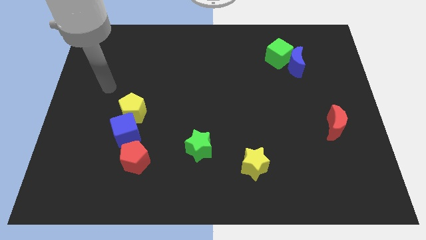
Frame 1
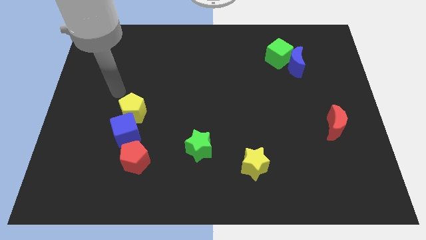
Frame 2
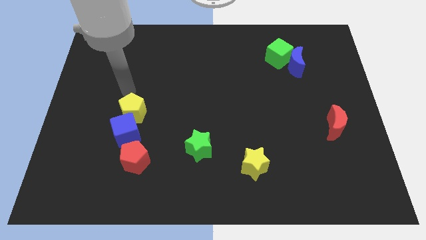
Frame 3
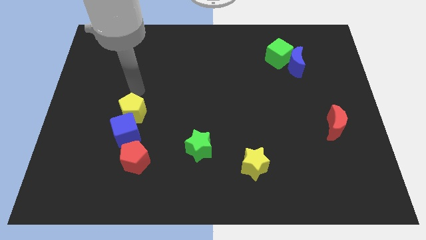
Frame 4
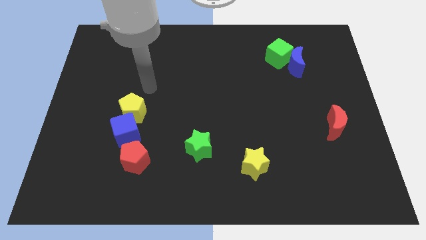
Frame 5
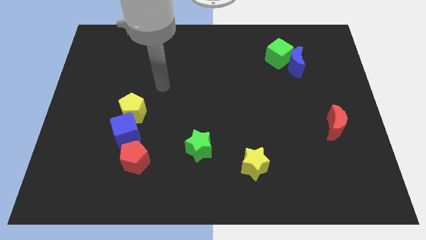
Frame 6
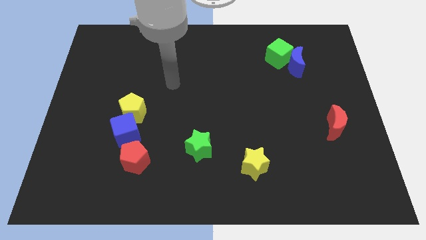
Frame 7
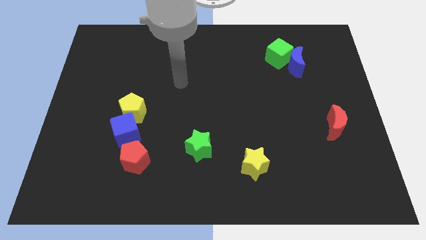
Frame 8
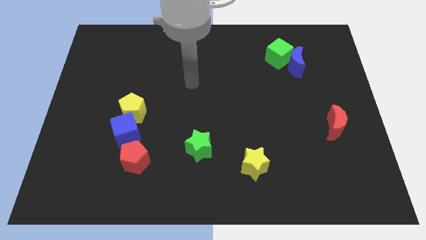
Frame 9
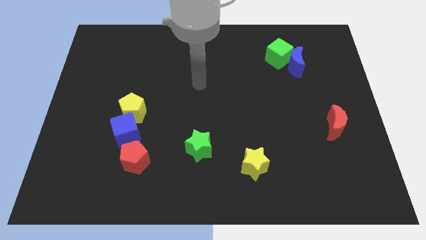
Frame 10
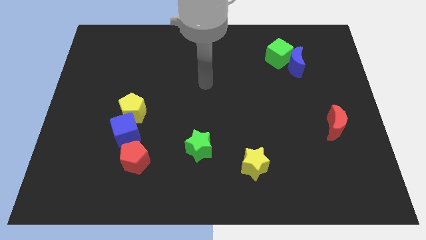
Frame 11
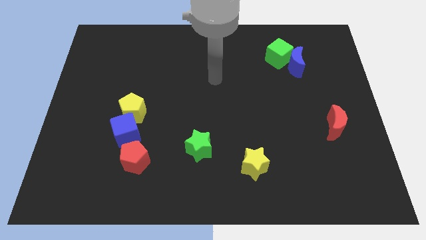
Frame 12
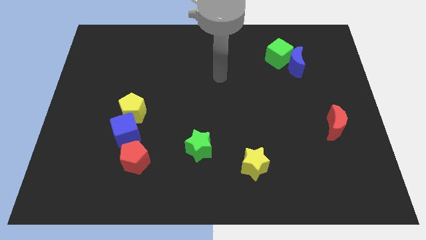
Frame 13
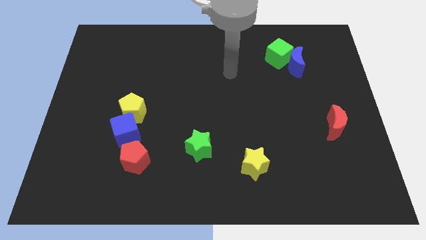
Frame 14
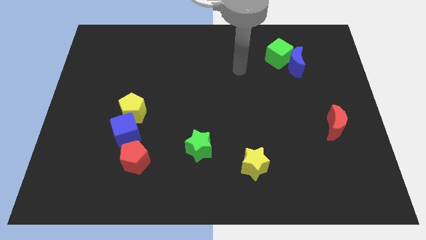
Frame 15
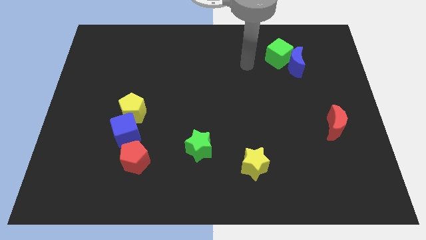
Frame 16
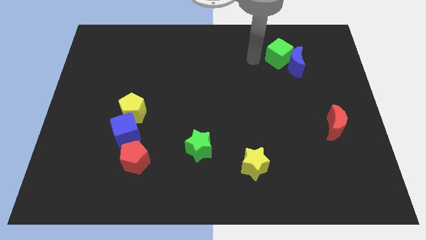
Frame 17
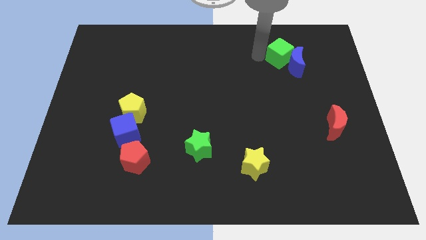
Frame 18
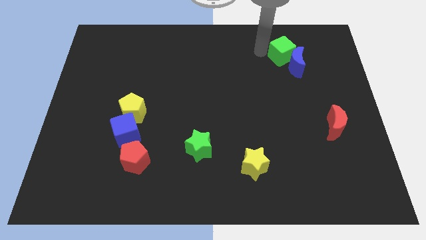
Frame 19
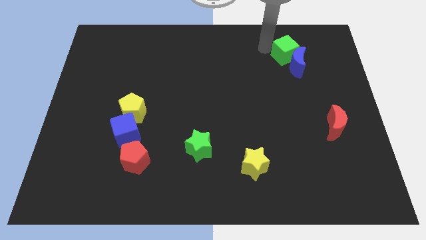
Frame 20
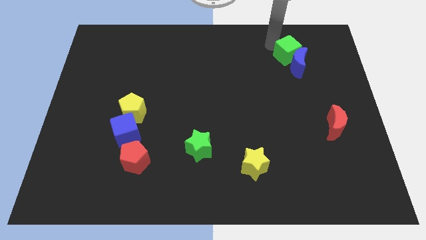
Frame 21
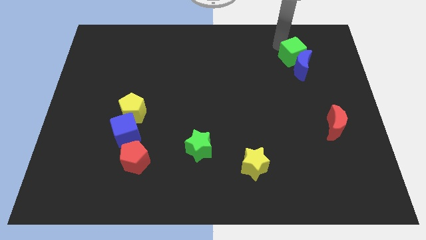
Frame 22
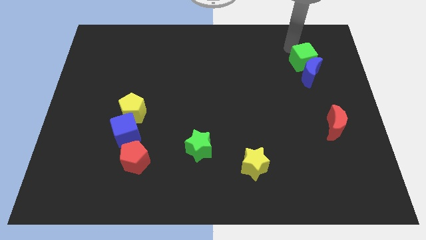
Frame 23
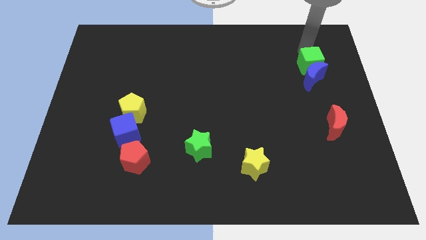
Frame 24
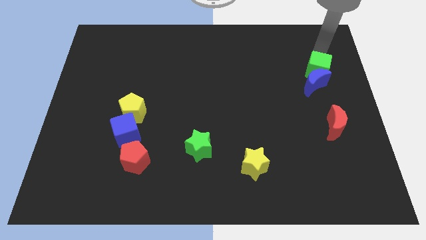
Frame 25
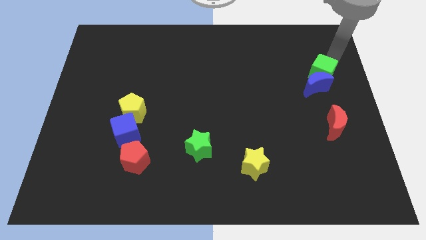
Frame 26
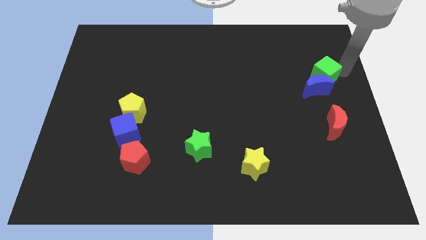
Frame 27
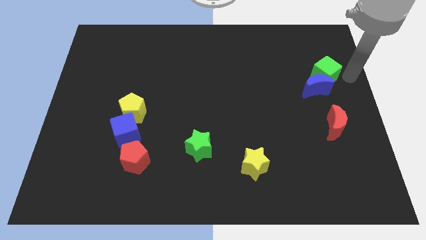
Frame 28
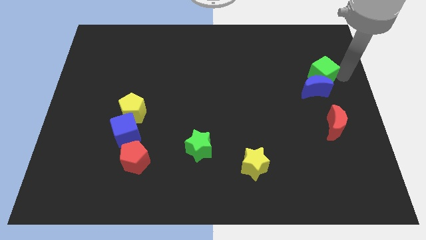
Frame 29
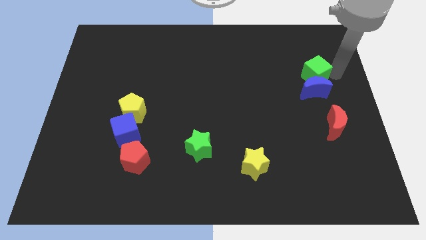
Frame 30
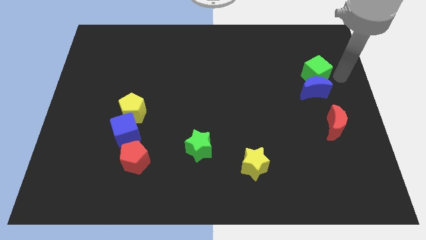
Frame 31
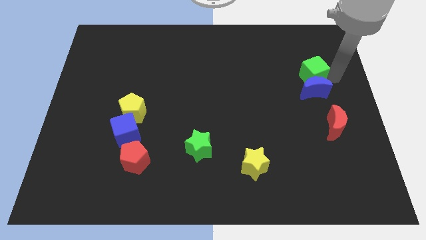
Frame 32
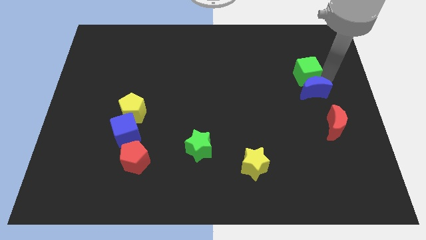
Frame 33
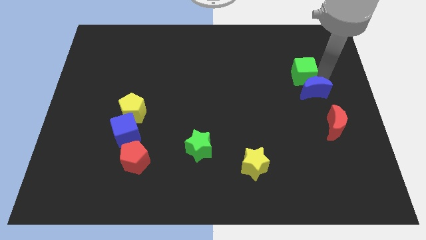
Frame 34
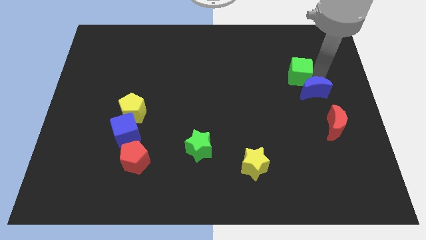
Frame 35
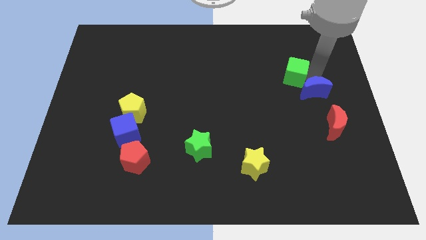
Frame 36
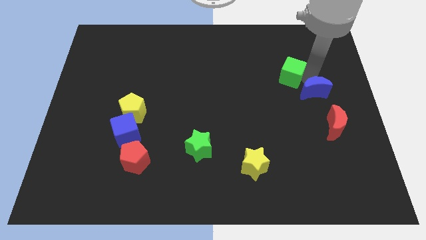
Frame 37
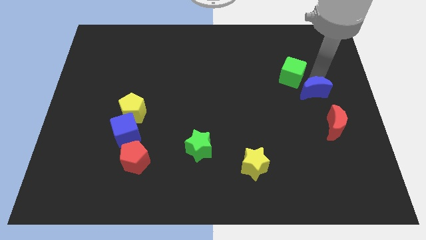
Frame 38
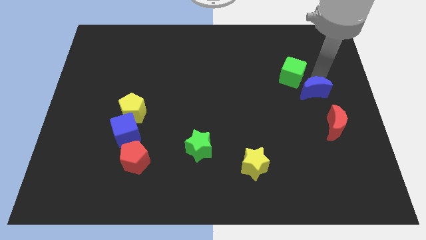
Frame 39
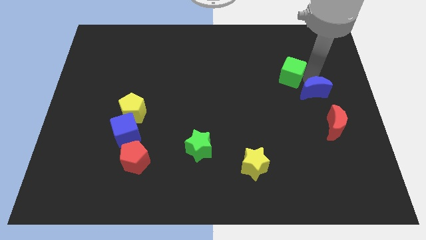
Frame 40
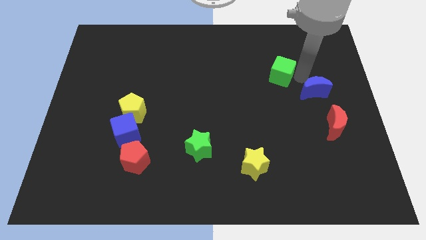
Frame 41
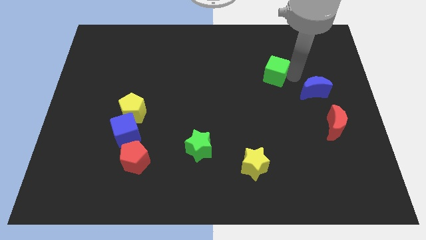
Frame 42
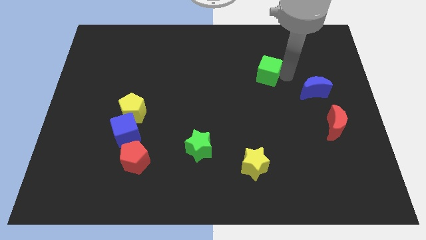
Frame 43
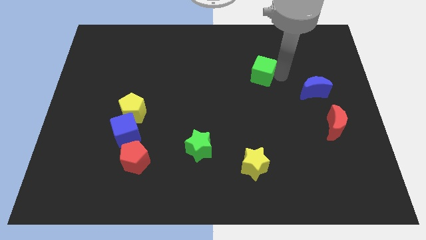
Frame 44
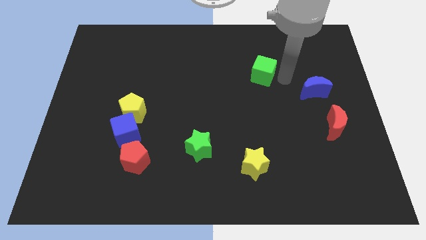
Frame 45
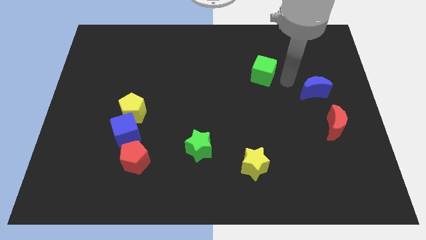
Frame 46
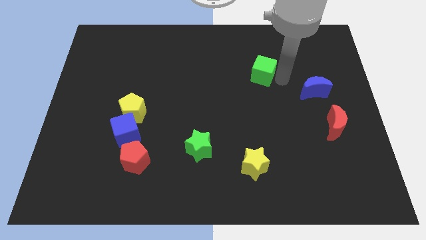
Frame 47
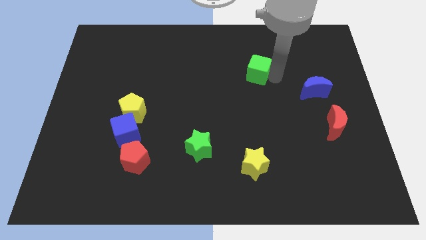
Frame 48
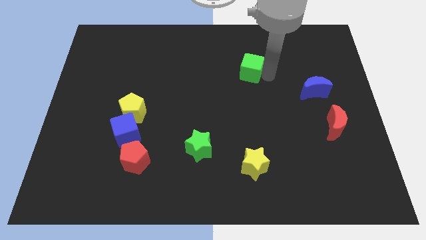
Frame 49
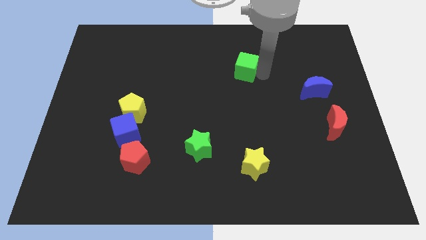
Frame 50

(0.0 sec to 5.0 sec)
slightly move the green cube left

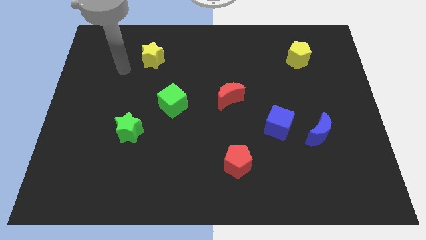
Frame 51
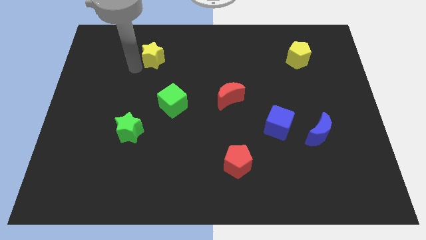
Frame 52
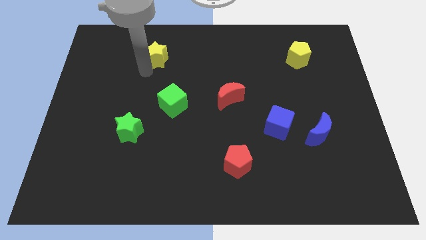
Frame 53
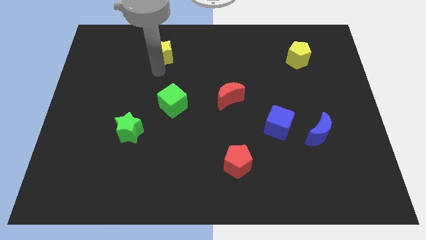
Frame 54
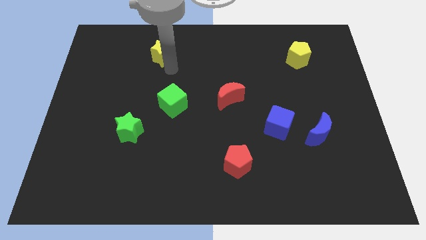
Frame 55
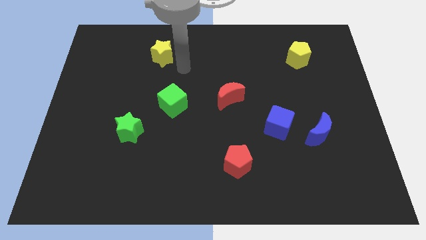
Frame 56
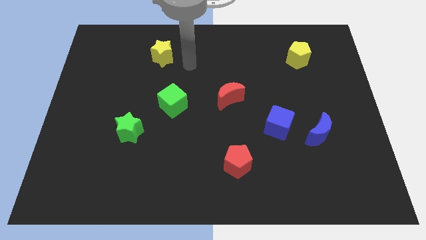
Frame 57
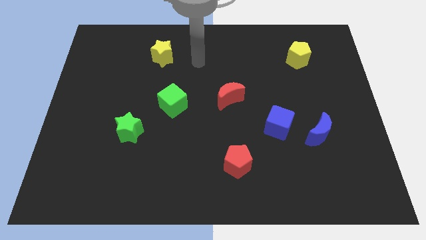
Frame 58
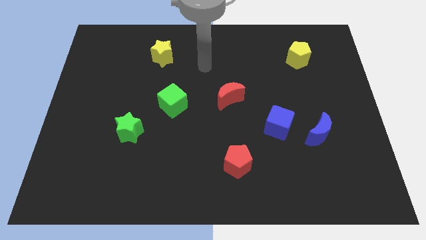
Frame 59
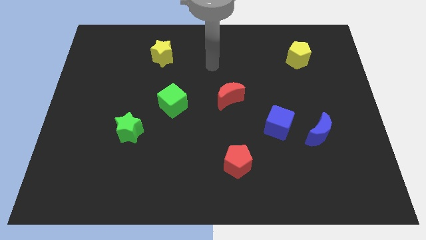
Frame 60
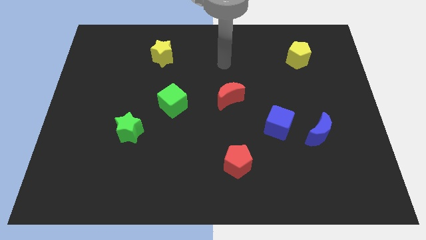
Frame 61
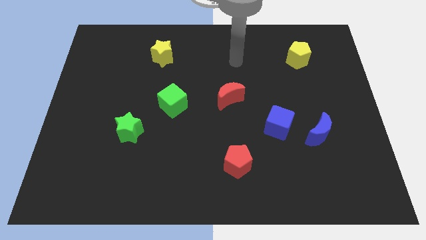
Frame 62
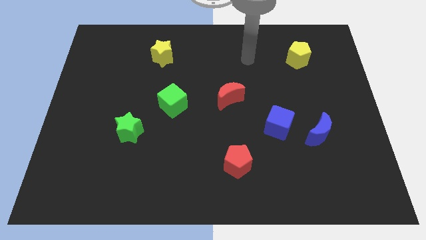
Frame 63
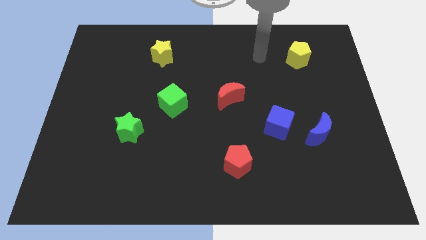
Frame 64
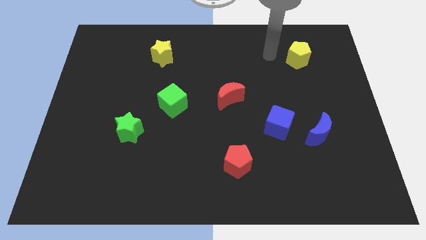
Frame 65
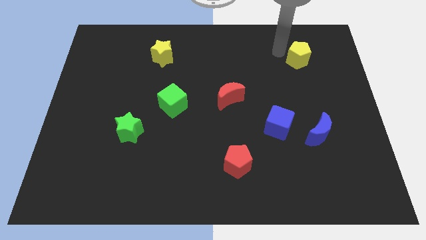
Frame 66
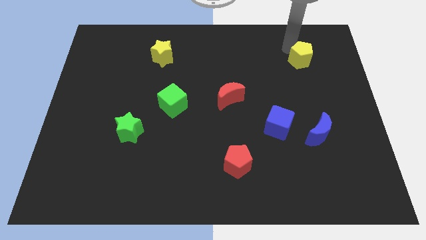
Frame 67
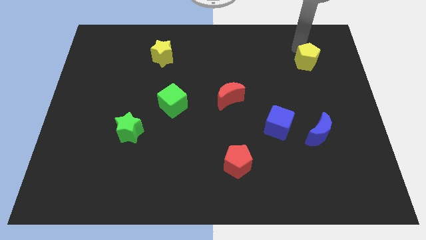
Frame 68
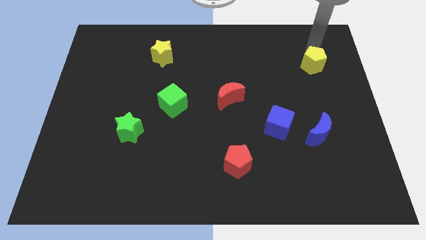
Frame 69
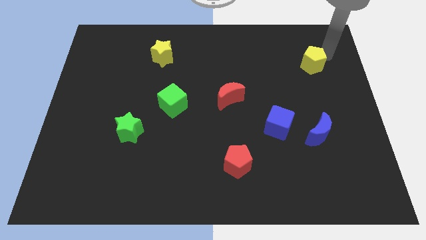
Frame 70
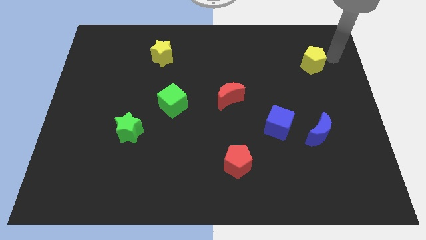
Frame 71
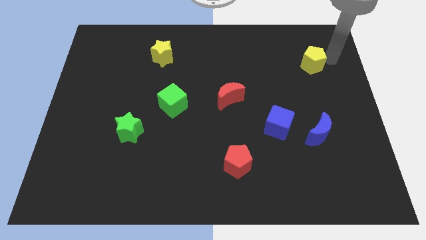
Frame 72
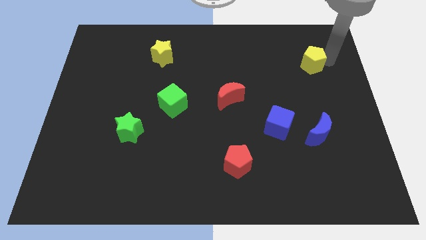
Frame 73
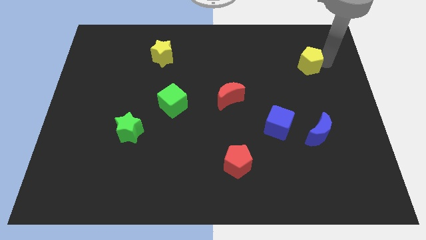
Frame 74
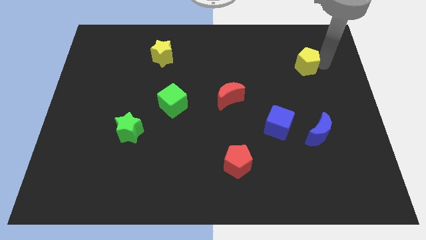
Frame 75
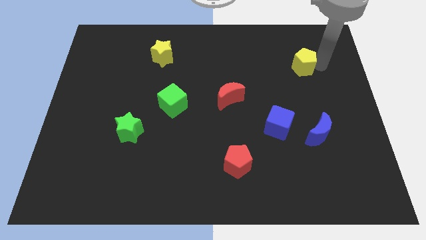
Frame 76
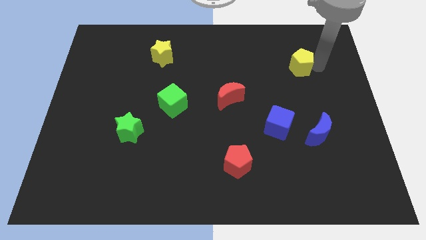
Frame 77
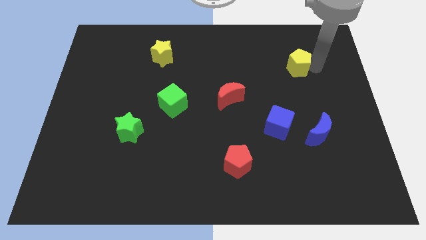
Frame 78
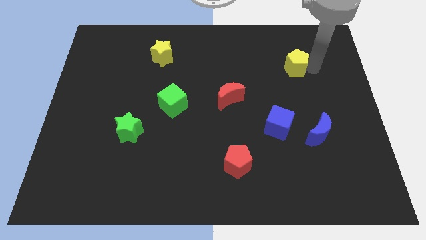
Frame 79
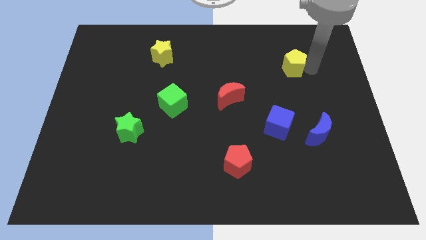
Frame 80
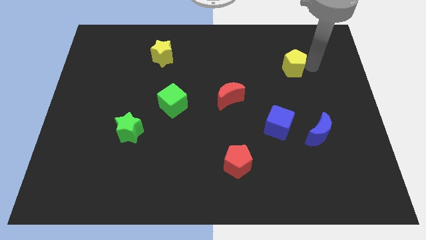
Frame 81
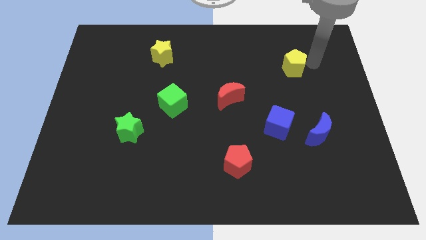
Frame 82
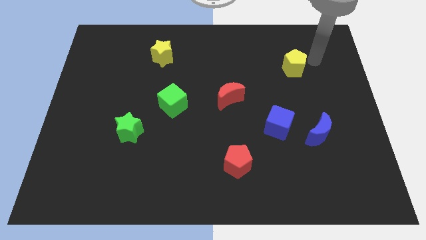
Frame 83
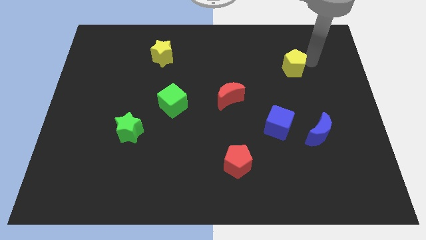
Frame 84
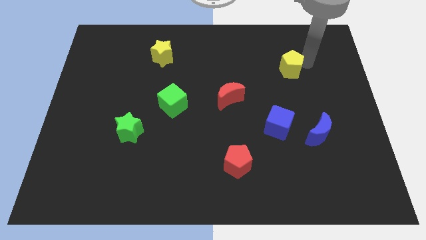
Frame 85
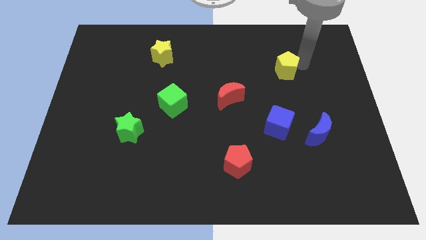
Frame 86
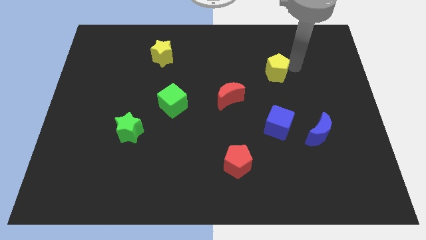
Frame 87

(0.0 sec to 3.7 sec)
slide the yellow pentagon slightly down and left diagonally
